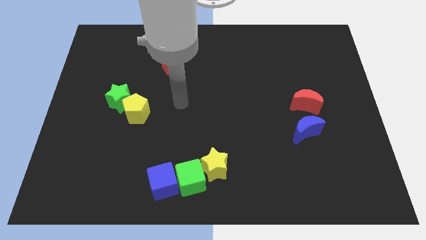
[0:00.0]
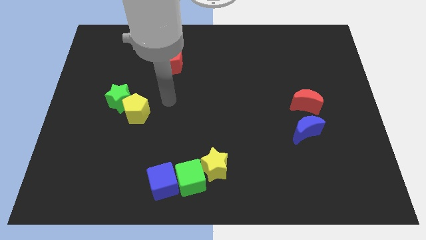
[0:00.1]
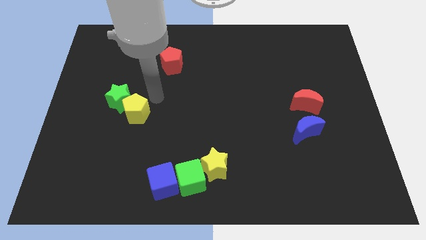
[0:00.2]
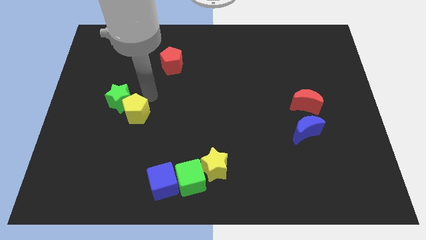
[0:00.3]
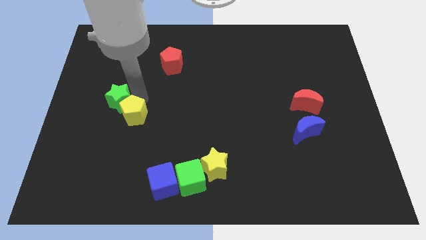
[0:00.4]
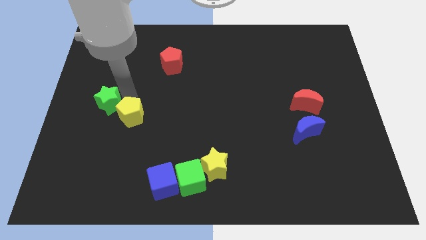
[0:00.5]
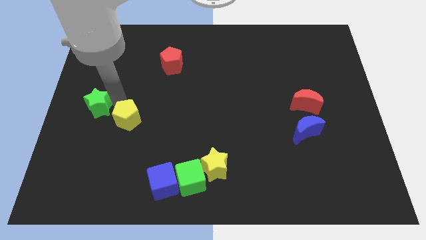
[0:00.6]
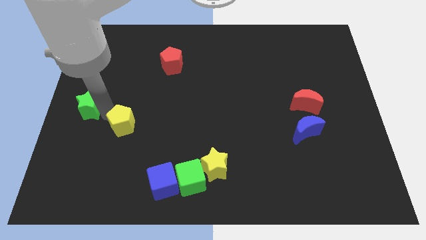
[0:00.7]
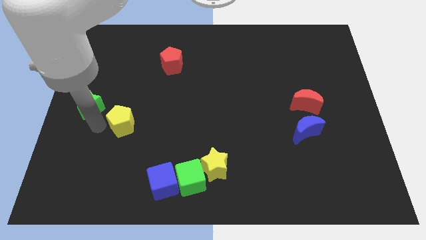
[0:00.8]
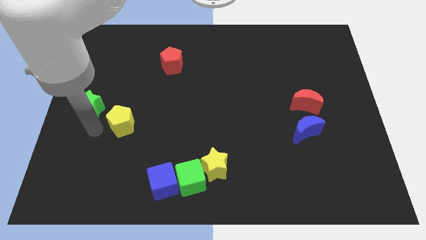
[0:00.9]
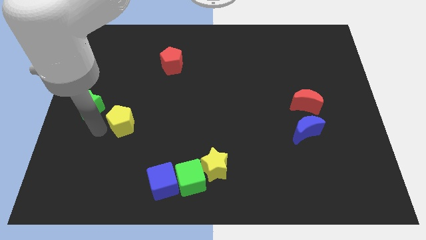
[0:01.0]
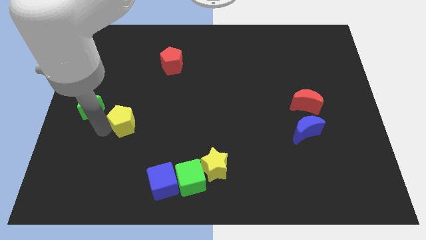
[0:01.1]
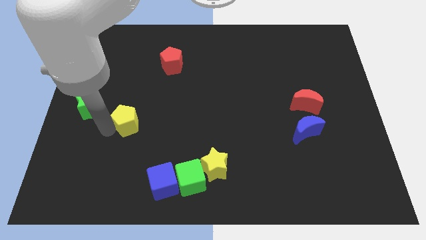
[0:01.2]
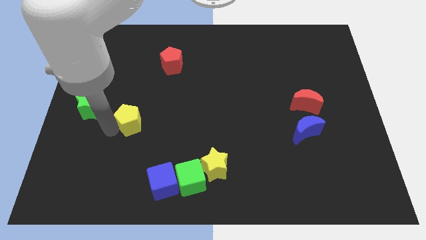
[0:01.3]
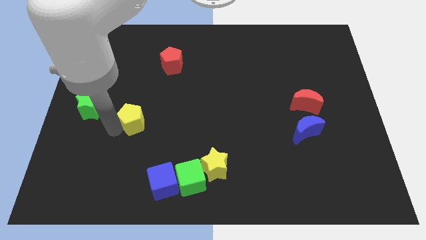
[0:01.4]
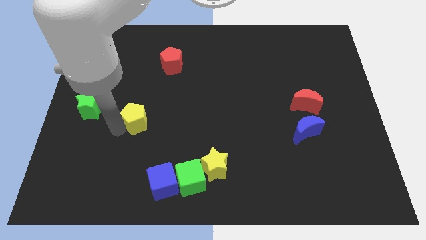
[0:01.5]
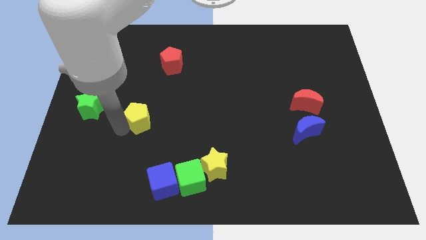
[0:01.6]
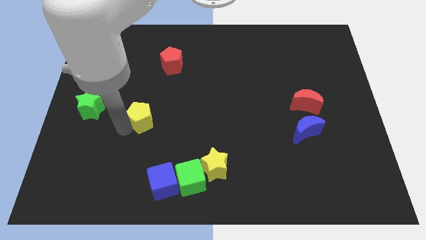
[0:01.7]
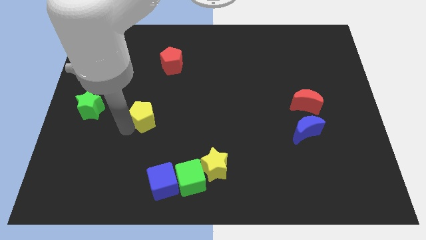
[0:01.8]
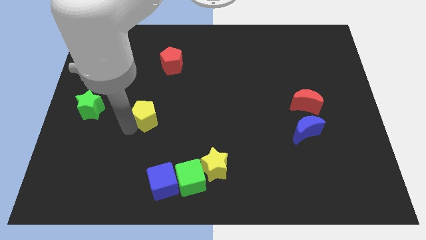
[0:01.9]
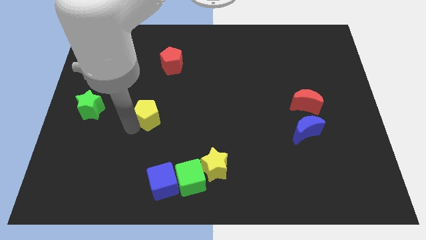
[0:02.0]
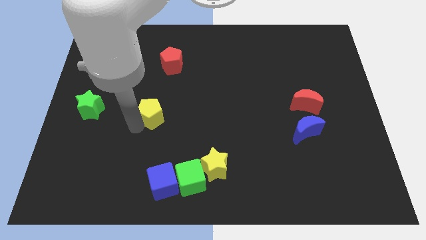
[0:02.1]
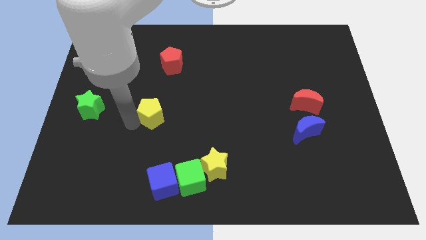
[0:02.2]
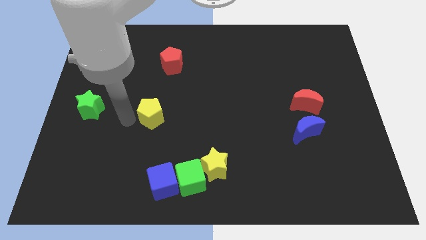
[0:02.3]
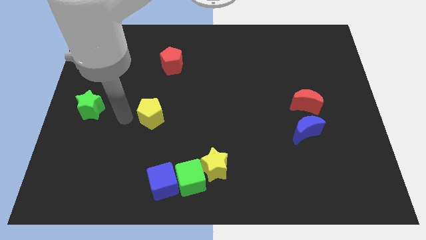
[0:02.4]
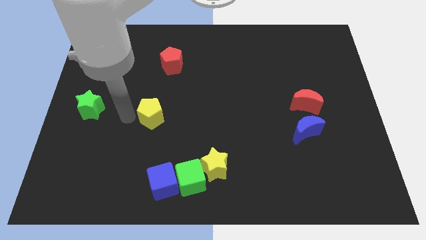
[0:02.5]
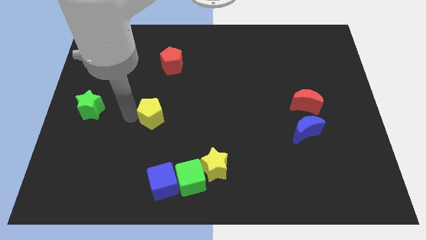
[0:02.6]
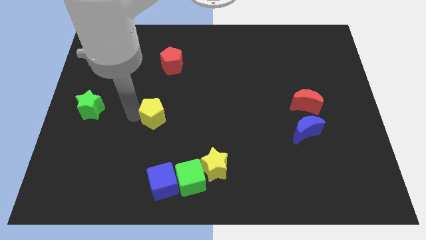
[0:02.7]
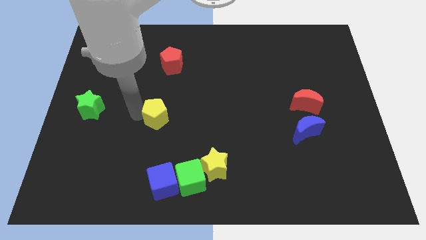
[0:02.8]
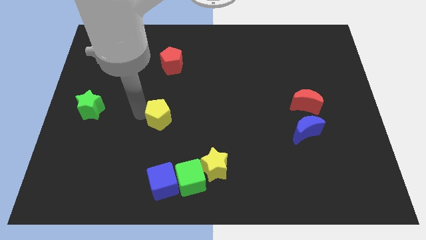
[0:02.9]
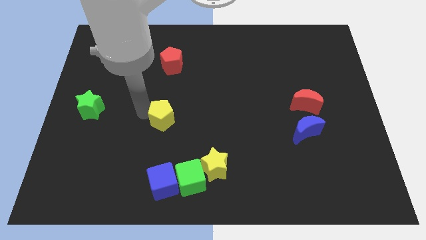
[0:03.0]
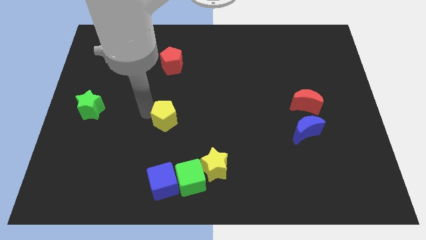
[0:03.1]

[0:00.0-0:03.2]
push the yellow pentagon to the right a bit

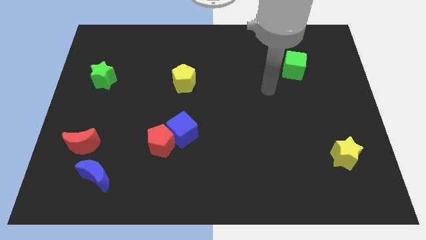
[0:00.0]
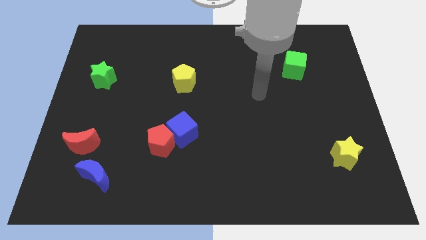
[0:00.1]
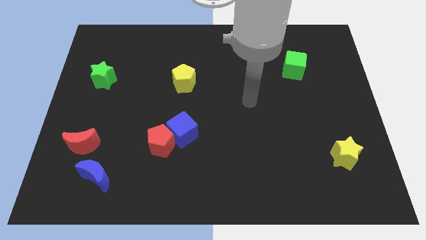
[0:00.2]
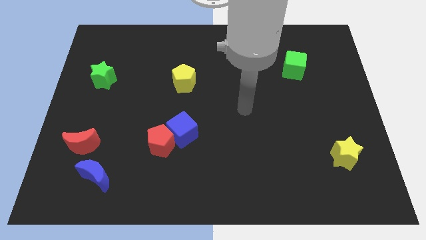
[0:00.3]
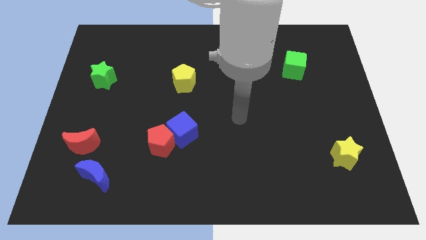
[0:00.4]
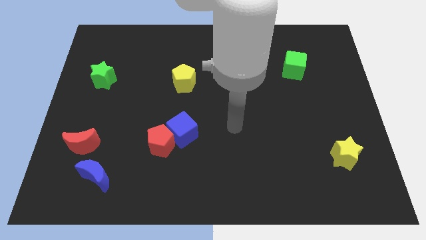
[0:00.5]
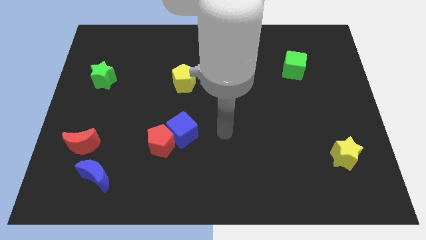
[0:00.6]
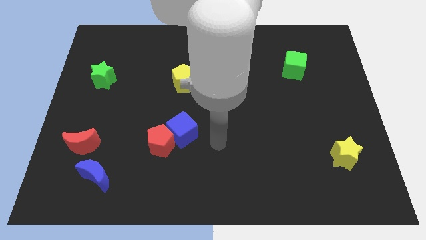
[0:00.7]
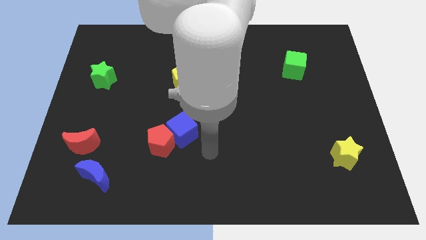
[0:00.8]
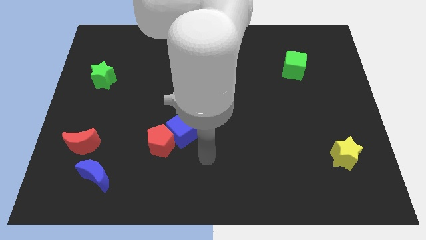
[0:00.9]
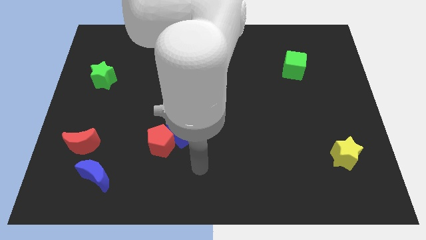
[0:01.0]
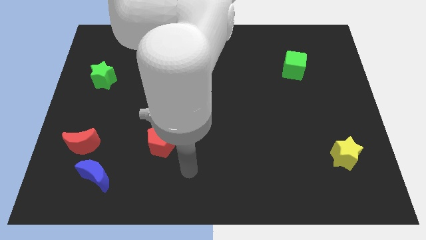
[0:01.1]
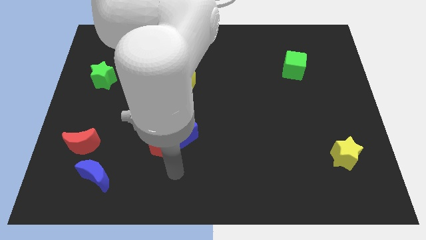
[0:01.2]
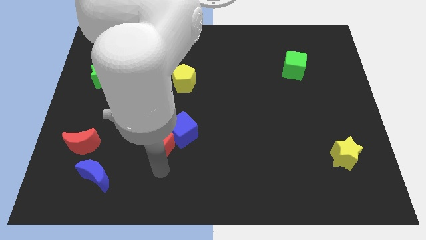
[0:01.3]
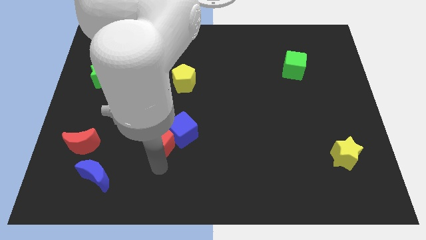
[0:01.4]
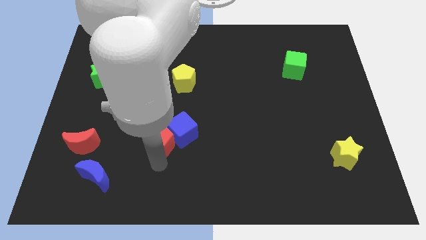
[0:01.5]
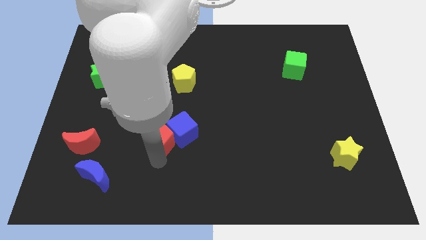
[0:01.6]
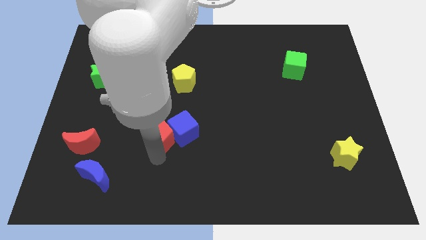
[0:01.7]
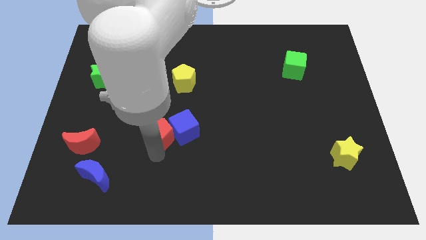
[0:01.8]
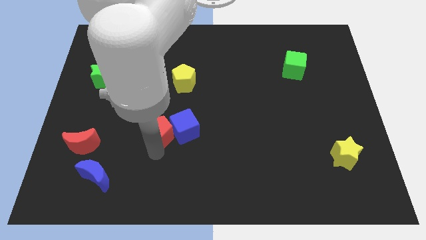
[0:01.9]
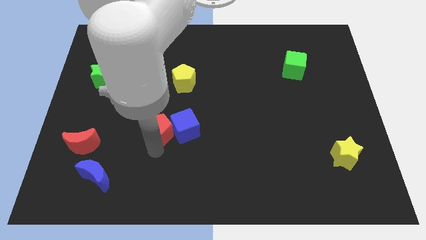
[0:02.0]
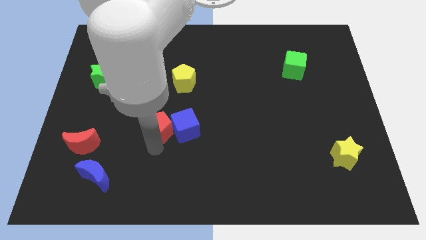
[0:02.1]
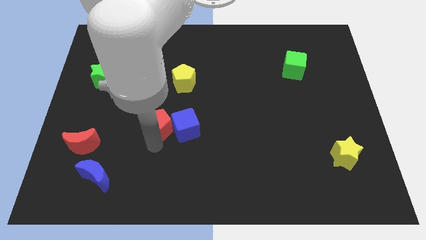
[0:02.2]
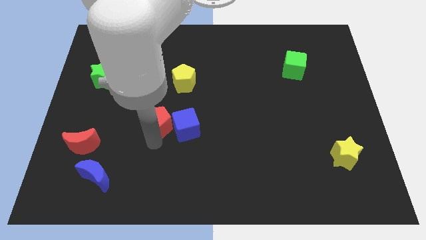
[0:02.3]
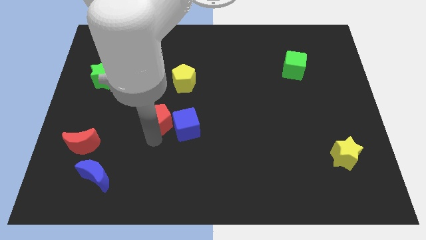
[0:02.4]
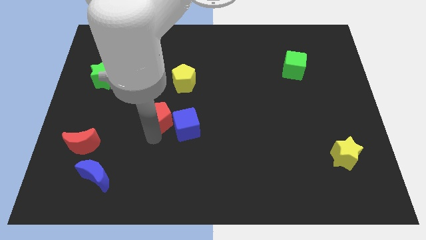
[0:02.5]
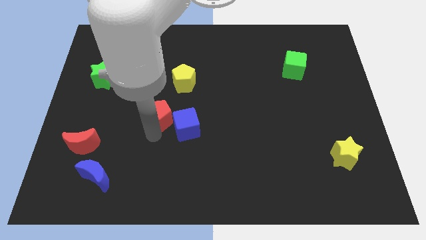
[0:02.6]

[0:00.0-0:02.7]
slightly slide the red pentagon up

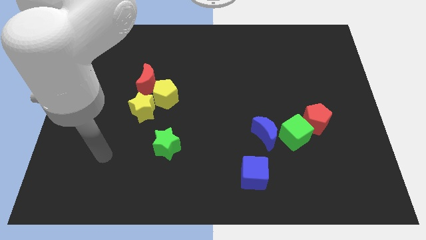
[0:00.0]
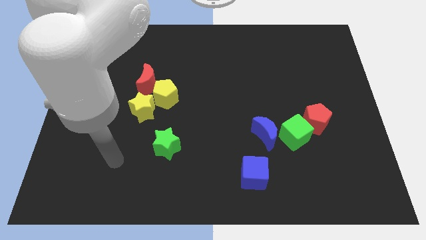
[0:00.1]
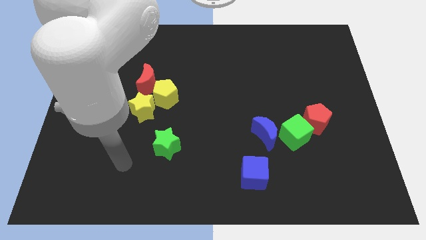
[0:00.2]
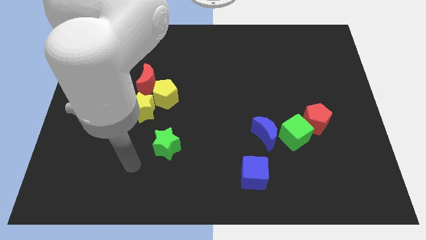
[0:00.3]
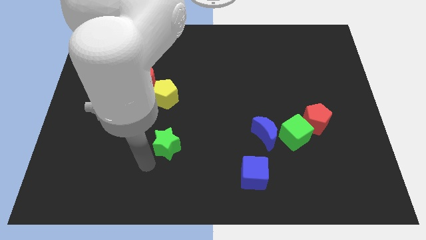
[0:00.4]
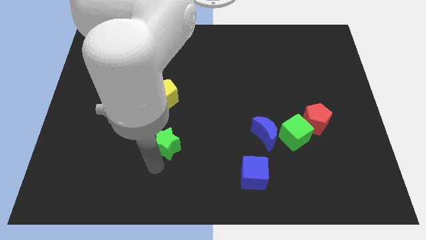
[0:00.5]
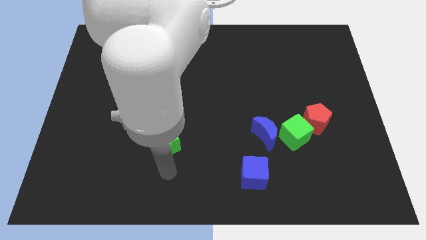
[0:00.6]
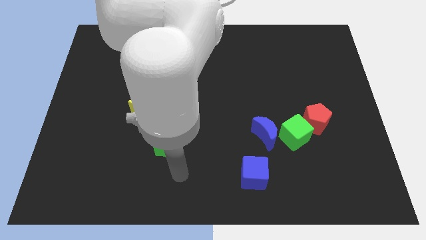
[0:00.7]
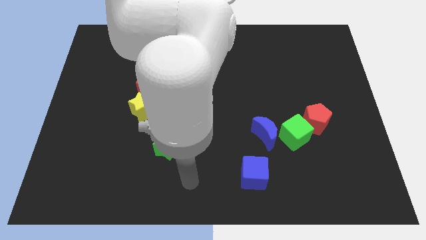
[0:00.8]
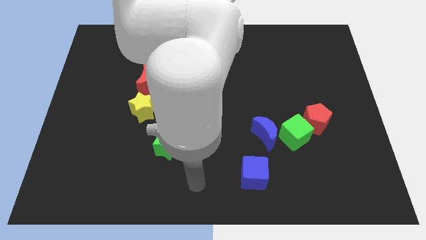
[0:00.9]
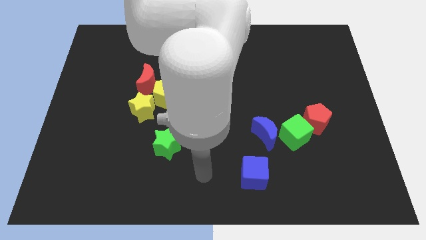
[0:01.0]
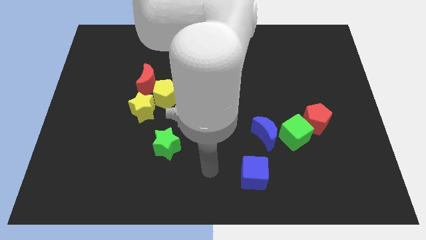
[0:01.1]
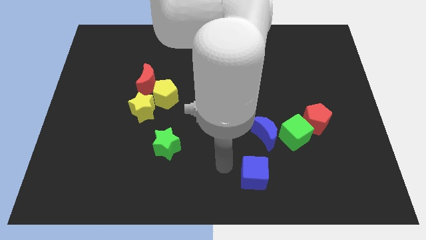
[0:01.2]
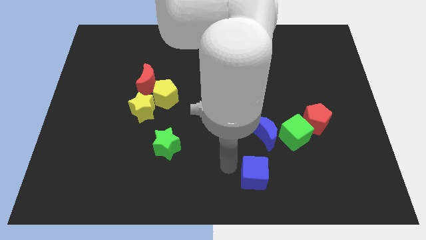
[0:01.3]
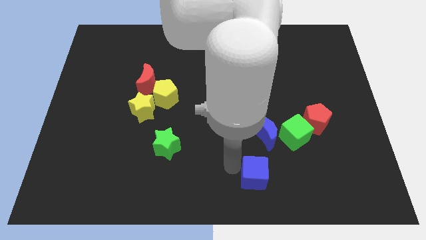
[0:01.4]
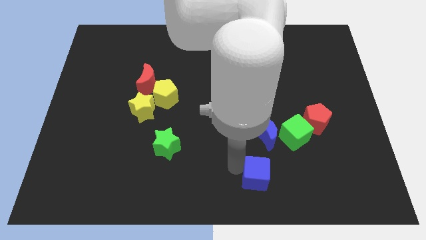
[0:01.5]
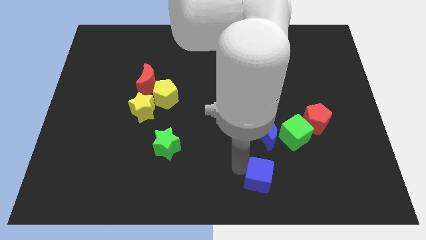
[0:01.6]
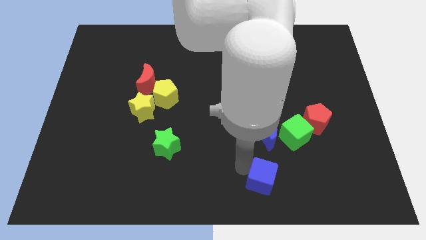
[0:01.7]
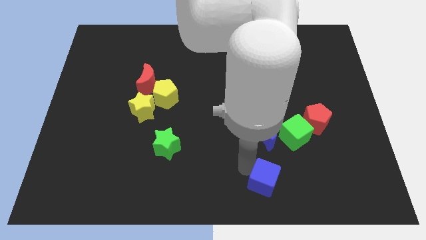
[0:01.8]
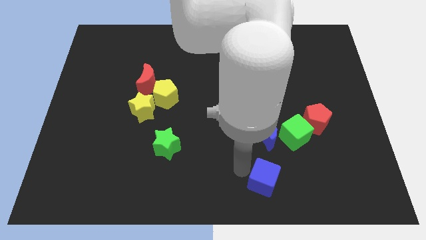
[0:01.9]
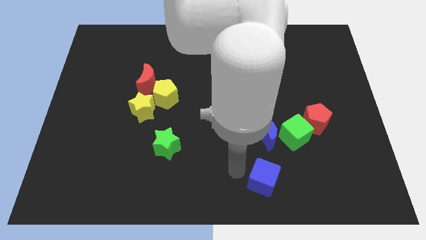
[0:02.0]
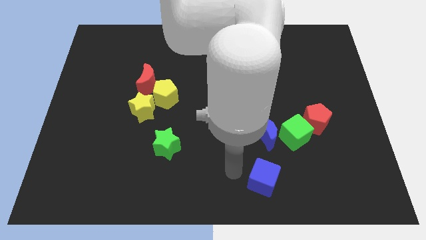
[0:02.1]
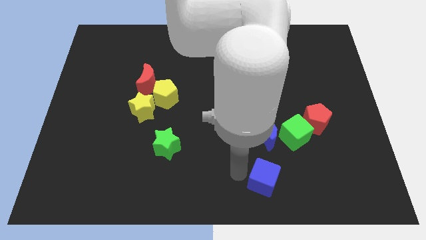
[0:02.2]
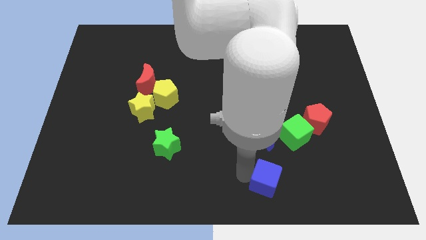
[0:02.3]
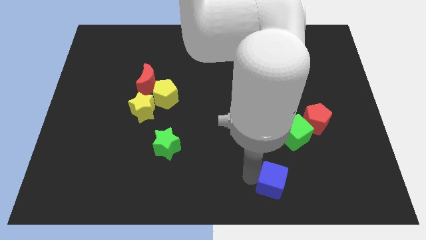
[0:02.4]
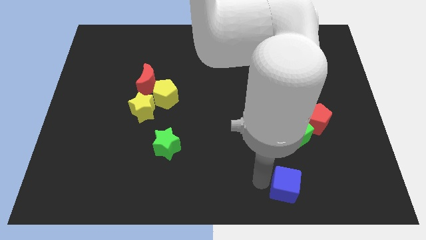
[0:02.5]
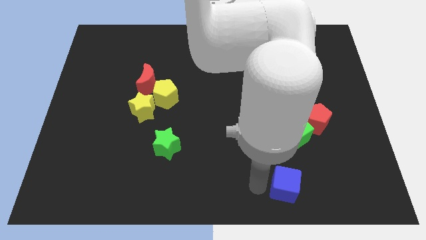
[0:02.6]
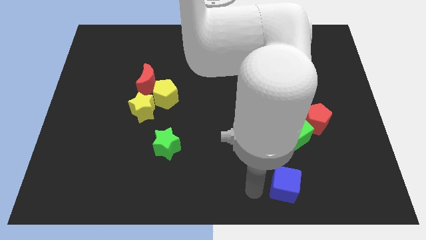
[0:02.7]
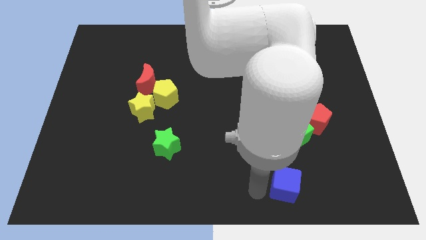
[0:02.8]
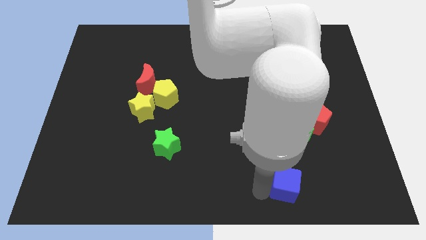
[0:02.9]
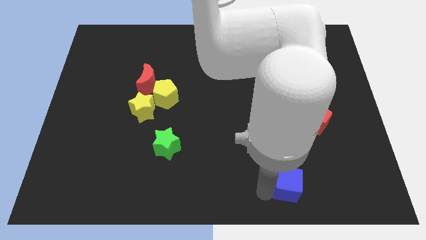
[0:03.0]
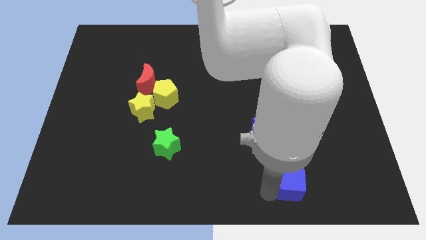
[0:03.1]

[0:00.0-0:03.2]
slightly slide the blue cube to the right
